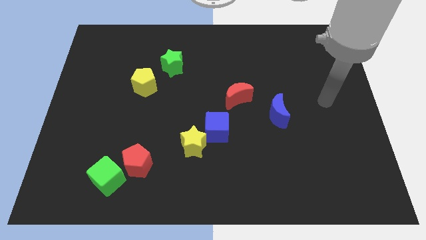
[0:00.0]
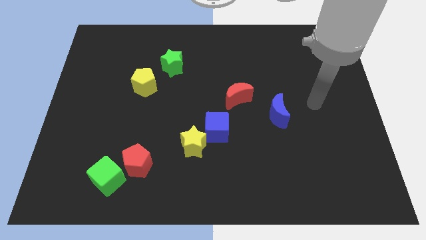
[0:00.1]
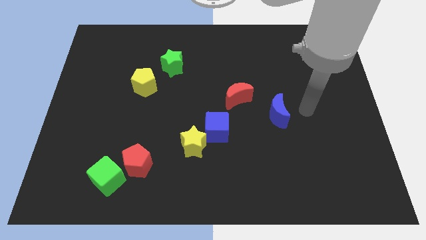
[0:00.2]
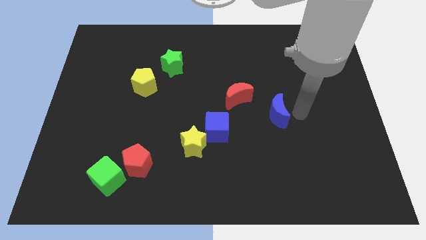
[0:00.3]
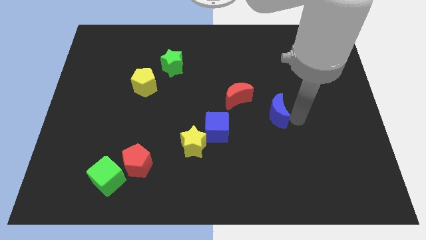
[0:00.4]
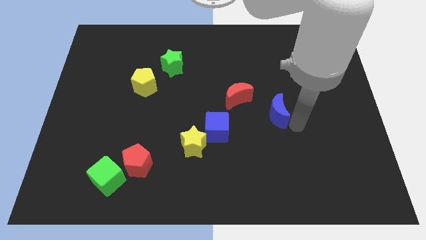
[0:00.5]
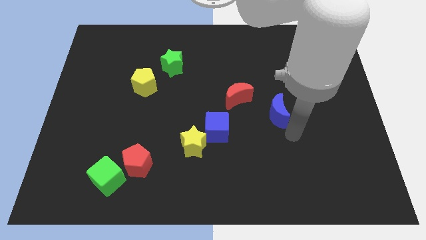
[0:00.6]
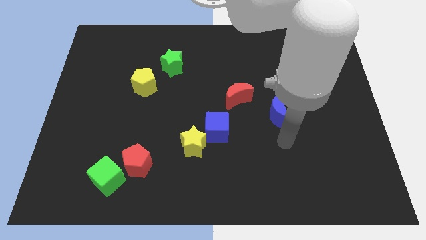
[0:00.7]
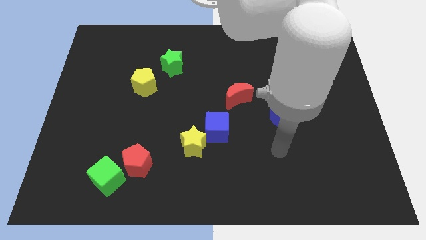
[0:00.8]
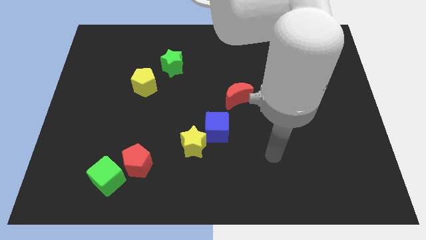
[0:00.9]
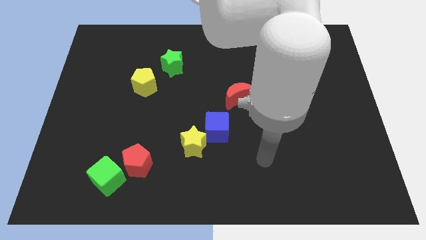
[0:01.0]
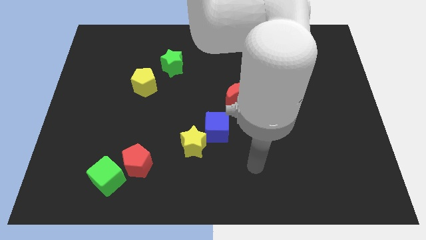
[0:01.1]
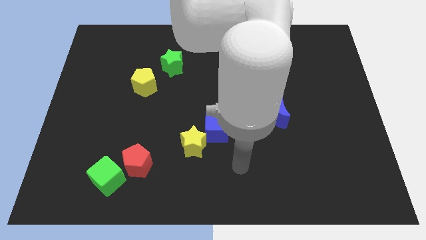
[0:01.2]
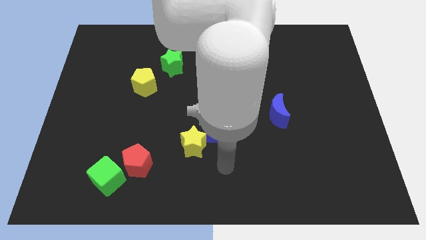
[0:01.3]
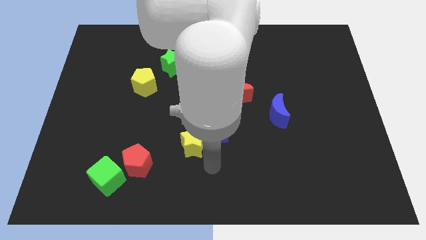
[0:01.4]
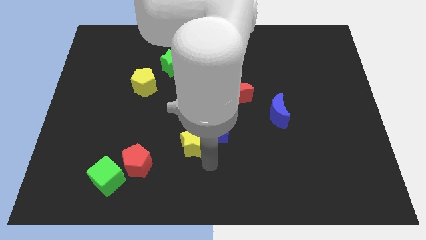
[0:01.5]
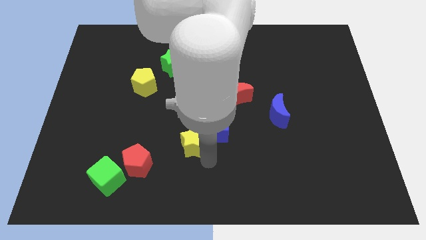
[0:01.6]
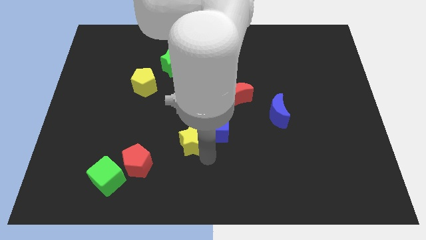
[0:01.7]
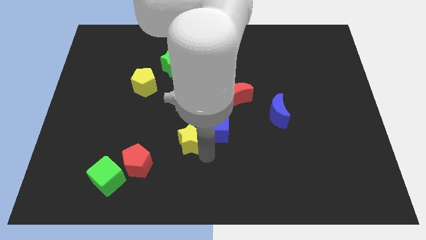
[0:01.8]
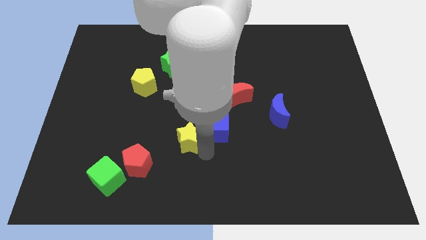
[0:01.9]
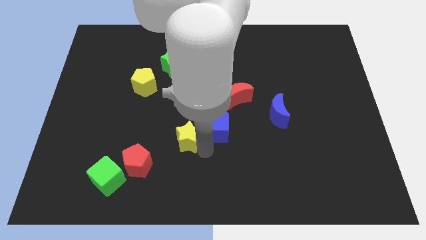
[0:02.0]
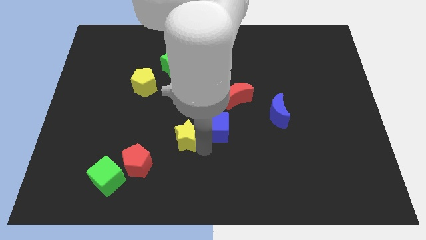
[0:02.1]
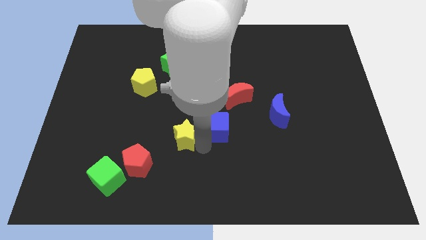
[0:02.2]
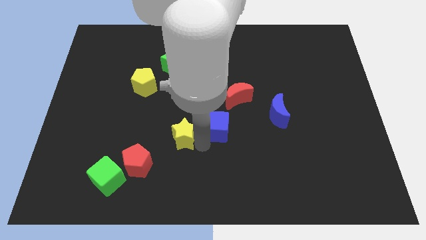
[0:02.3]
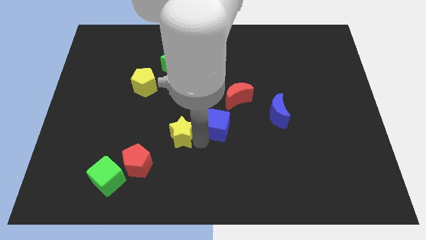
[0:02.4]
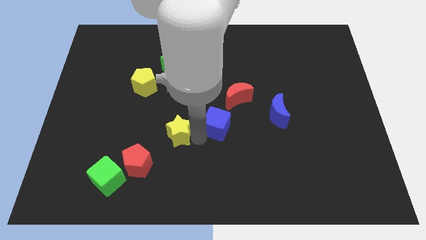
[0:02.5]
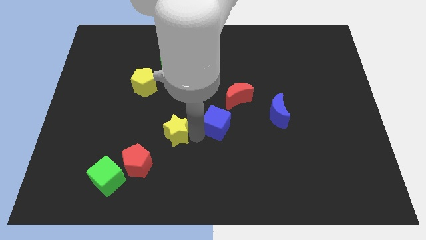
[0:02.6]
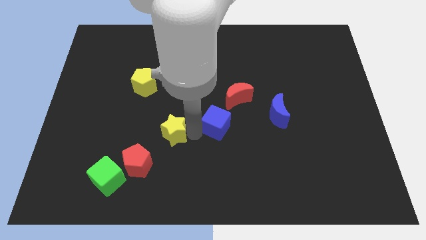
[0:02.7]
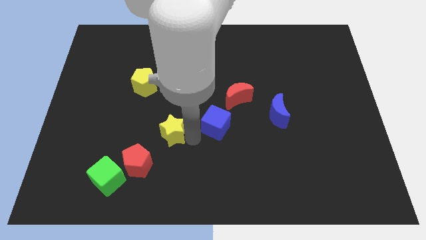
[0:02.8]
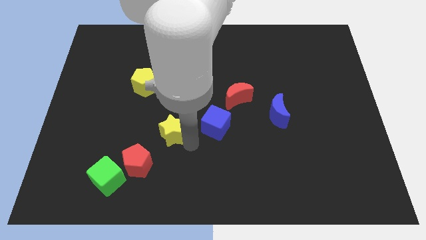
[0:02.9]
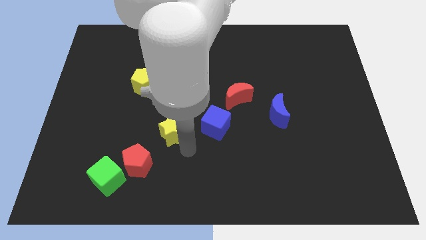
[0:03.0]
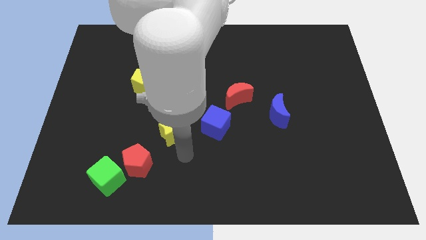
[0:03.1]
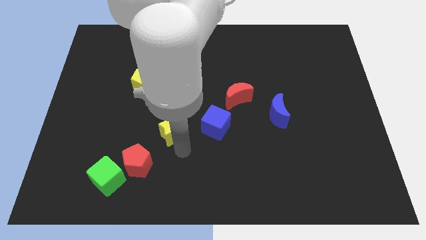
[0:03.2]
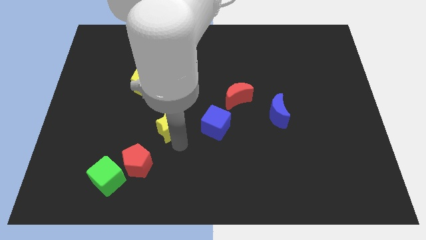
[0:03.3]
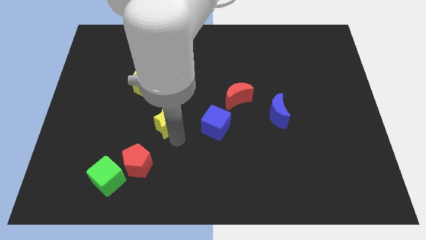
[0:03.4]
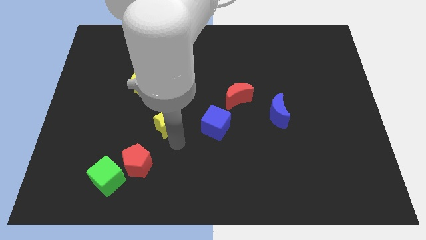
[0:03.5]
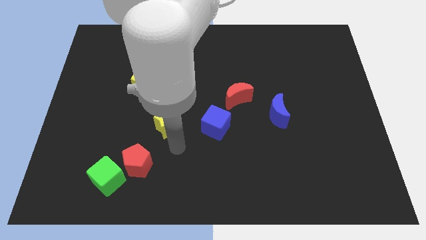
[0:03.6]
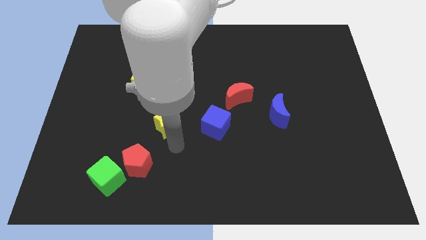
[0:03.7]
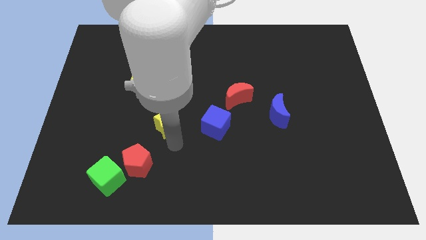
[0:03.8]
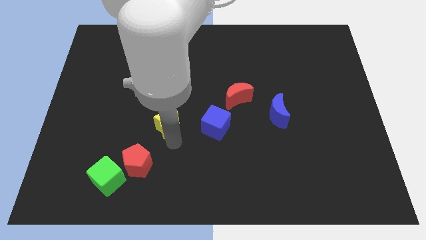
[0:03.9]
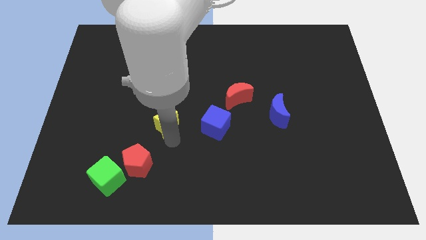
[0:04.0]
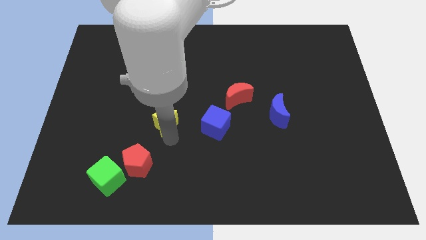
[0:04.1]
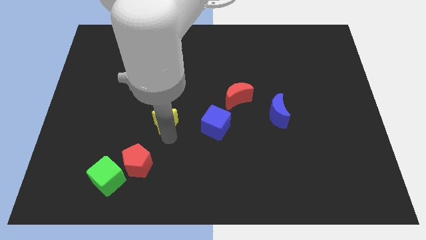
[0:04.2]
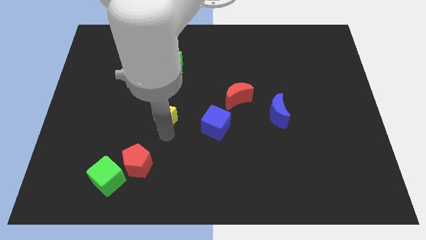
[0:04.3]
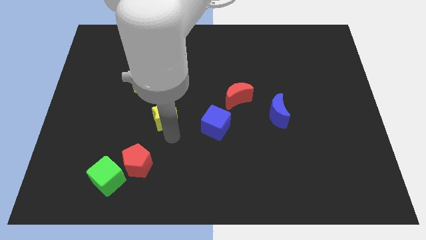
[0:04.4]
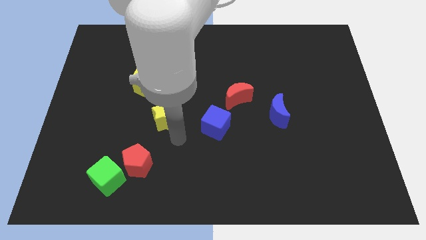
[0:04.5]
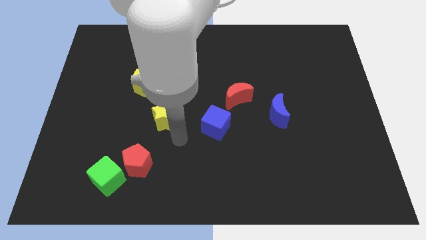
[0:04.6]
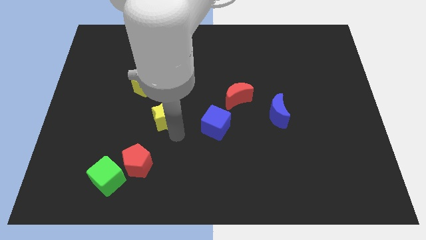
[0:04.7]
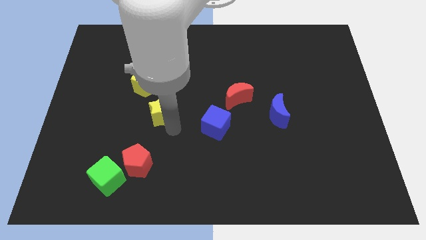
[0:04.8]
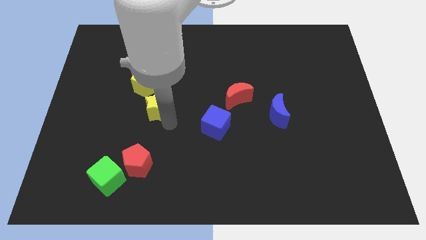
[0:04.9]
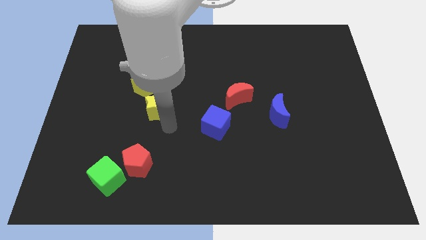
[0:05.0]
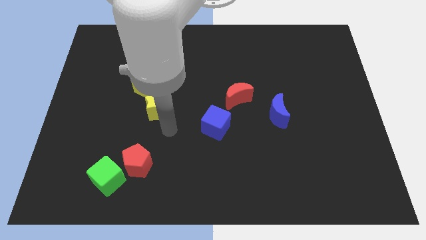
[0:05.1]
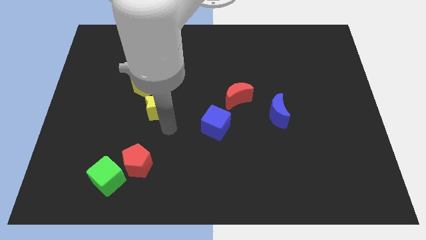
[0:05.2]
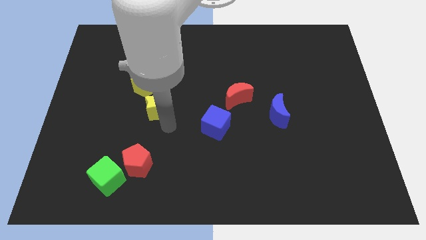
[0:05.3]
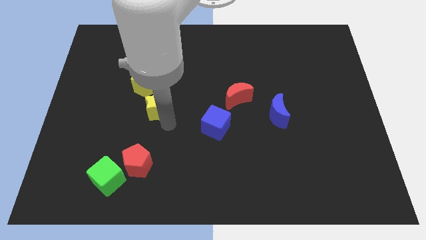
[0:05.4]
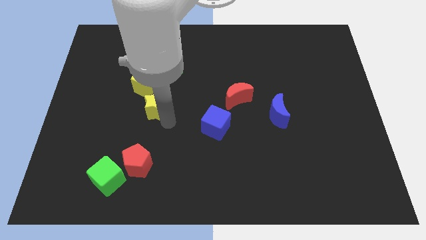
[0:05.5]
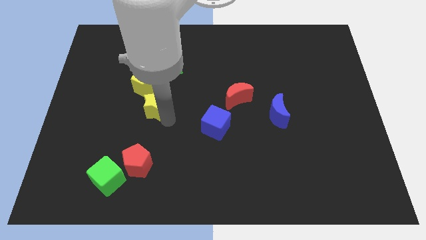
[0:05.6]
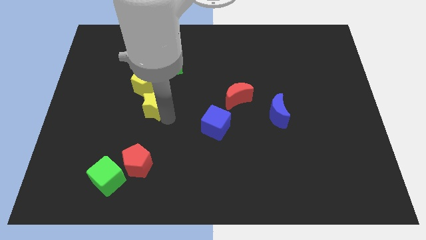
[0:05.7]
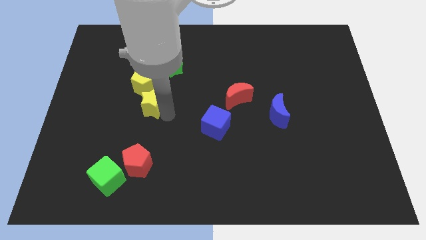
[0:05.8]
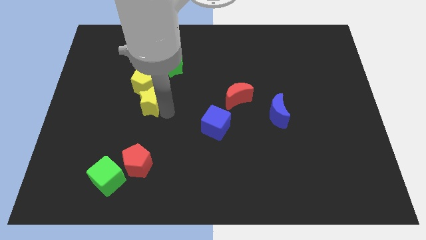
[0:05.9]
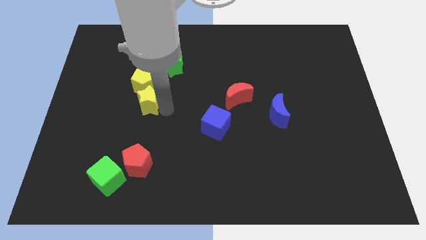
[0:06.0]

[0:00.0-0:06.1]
move the yellow star towards the yellow pentagon

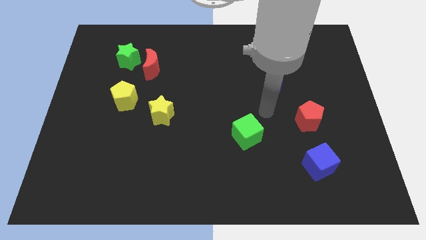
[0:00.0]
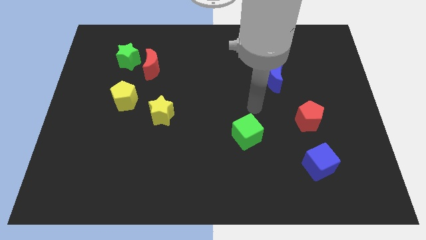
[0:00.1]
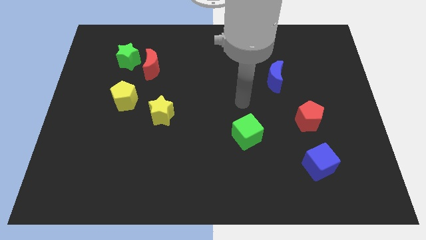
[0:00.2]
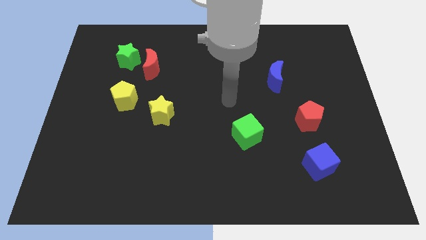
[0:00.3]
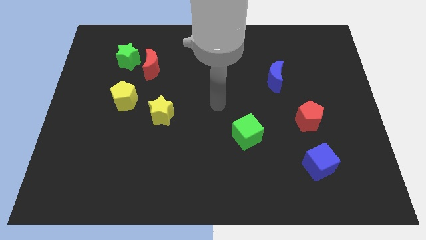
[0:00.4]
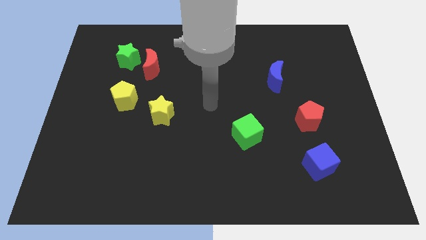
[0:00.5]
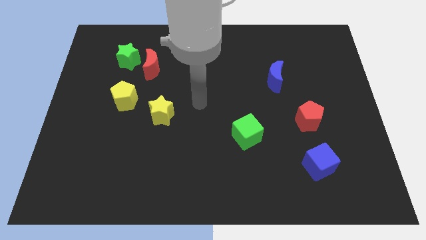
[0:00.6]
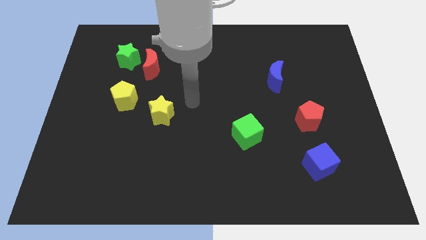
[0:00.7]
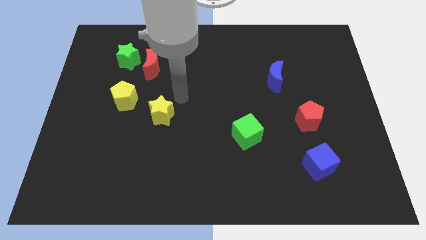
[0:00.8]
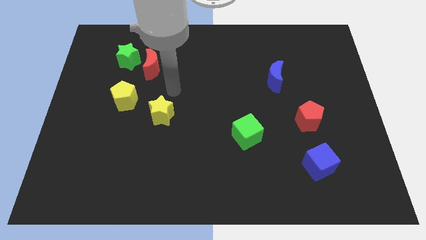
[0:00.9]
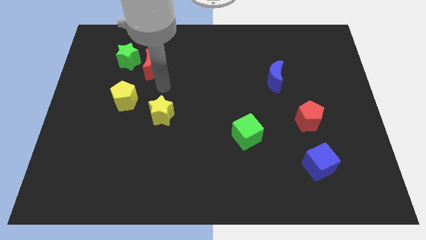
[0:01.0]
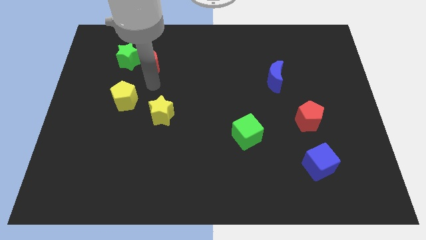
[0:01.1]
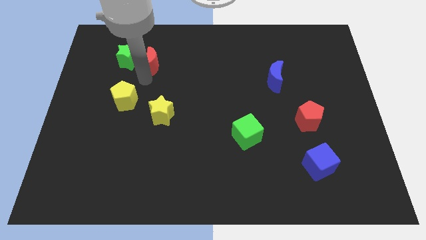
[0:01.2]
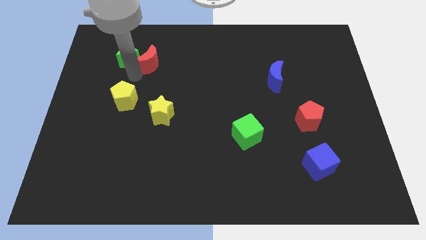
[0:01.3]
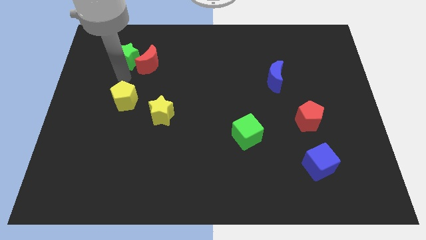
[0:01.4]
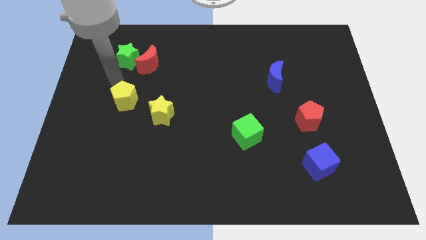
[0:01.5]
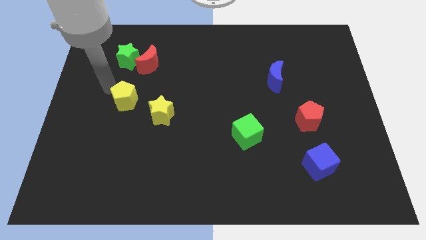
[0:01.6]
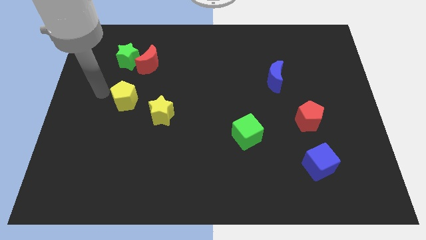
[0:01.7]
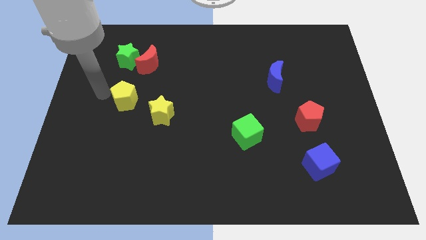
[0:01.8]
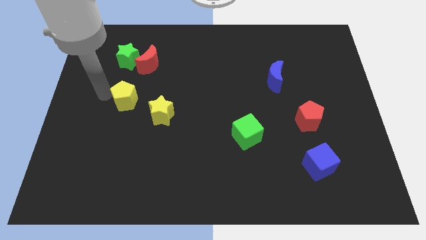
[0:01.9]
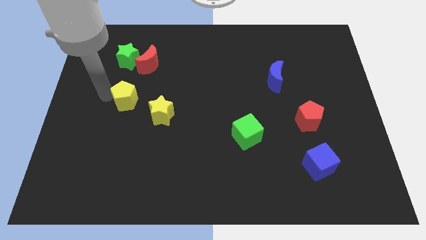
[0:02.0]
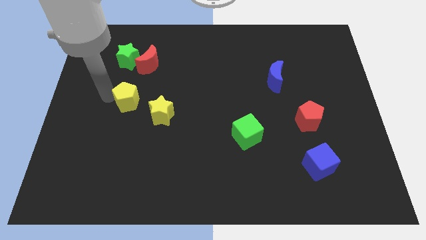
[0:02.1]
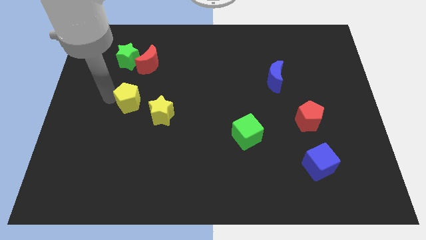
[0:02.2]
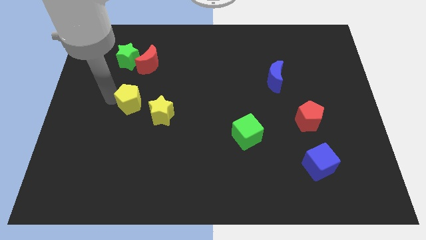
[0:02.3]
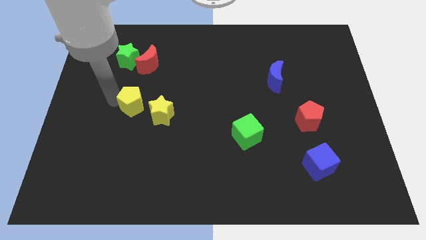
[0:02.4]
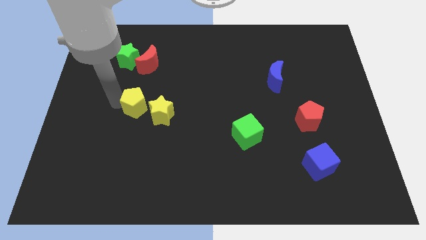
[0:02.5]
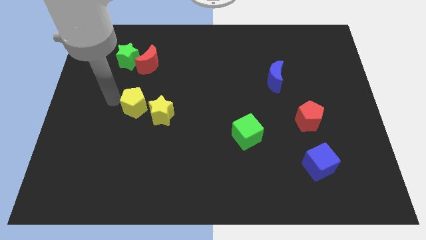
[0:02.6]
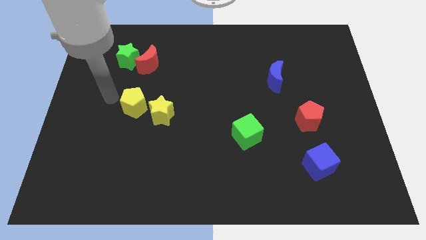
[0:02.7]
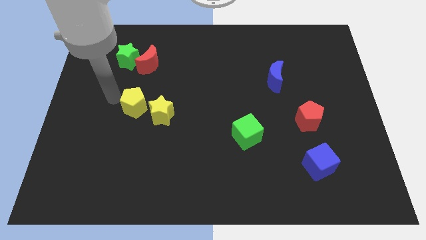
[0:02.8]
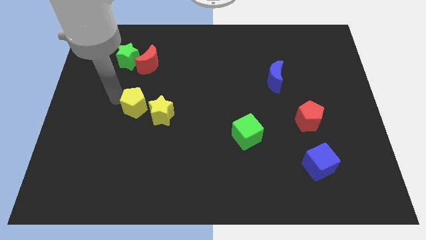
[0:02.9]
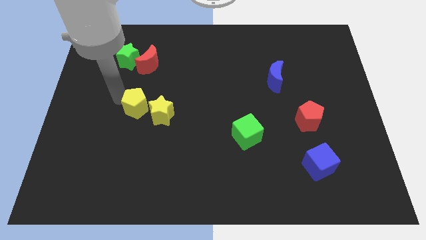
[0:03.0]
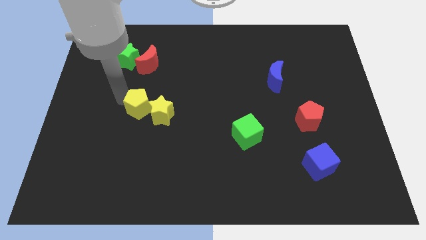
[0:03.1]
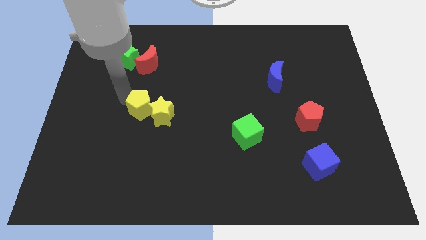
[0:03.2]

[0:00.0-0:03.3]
move the yellow pentagon close to the yellow star
